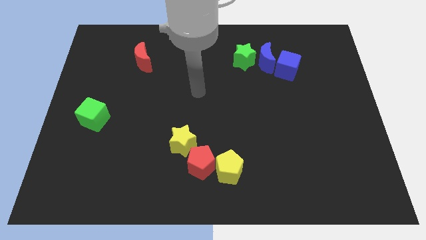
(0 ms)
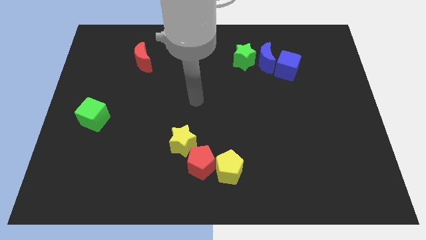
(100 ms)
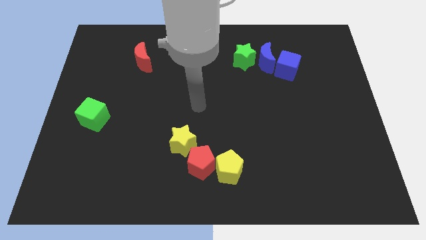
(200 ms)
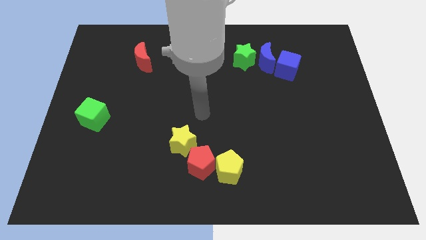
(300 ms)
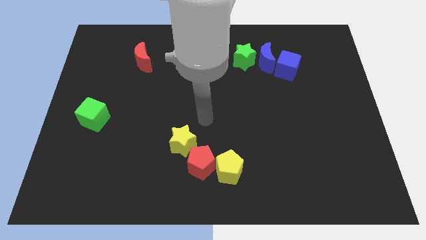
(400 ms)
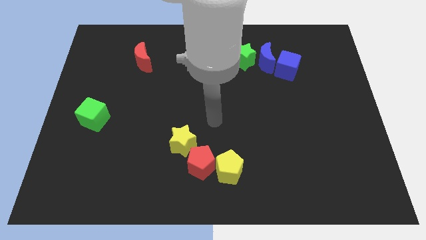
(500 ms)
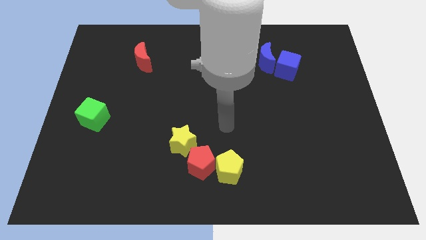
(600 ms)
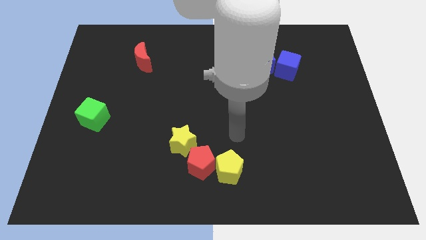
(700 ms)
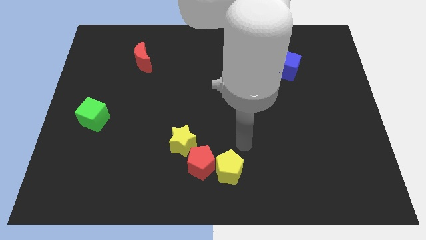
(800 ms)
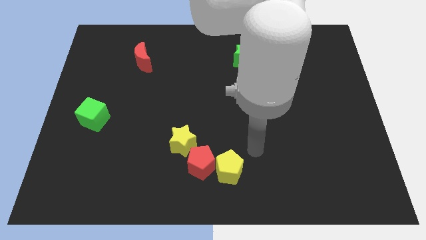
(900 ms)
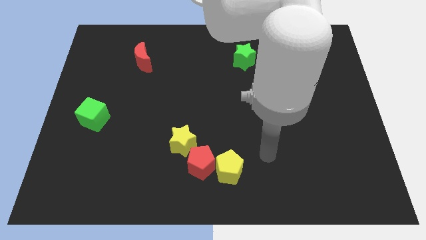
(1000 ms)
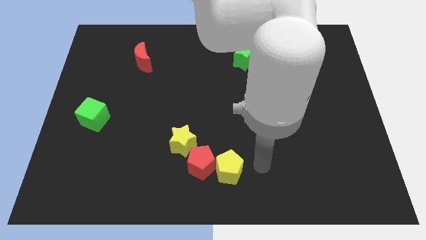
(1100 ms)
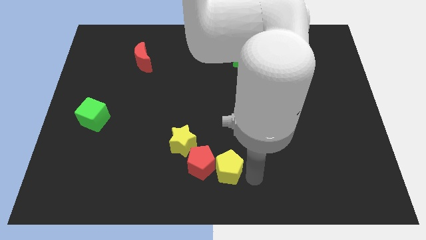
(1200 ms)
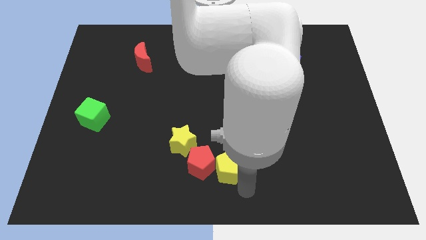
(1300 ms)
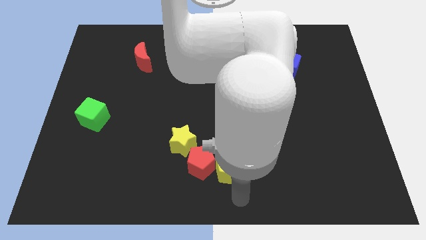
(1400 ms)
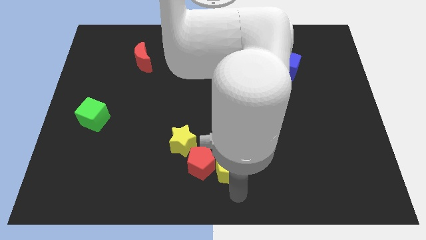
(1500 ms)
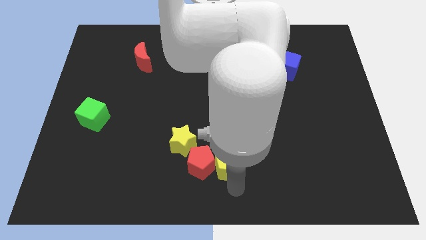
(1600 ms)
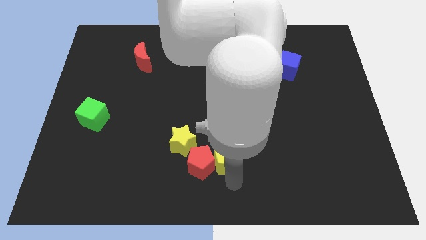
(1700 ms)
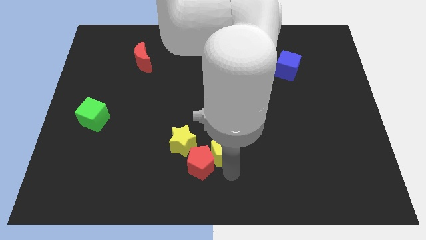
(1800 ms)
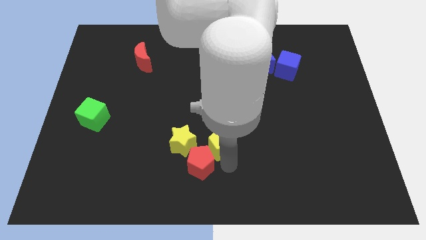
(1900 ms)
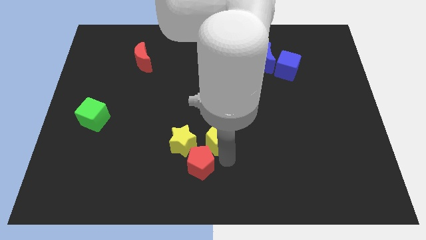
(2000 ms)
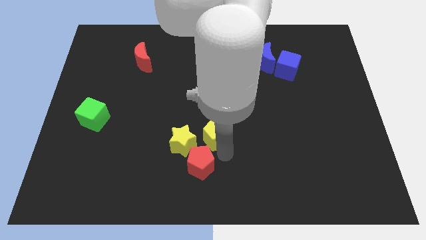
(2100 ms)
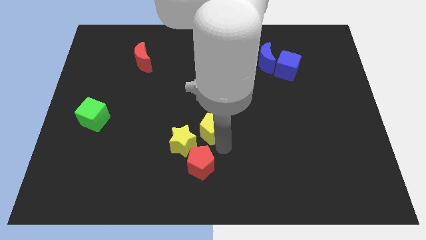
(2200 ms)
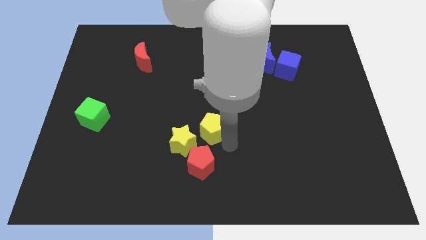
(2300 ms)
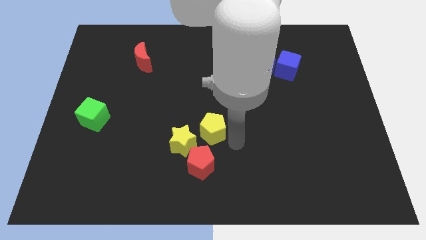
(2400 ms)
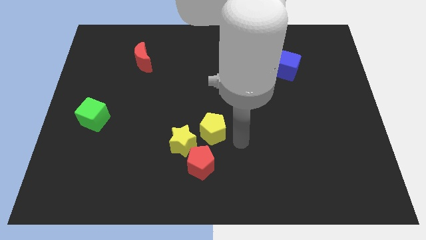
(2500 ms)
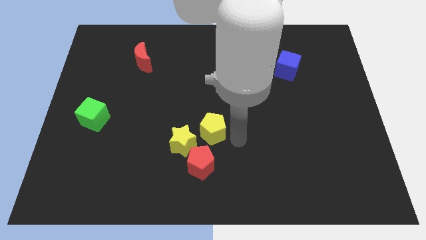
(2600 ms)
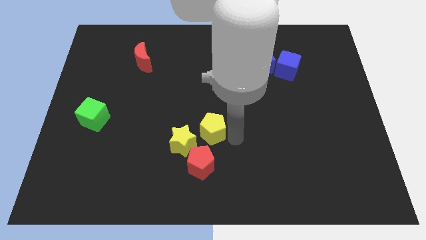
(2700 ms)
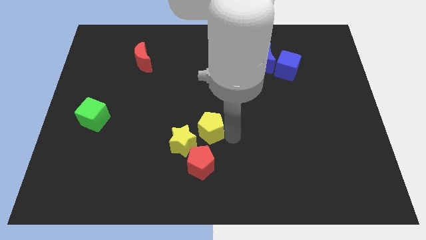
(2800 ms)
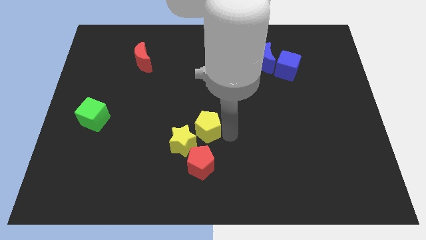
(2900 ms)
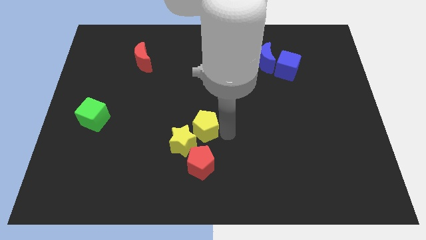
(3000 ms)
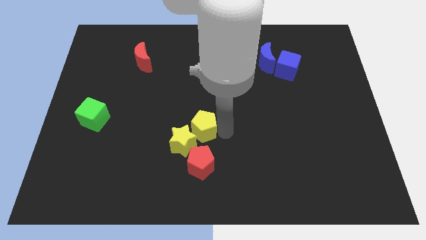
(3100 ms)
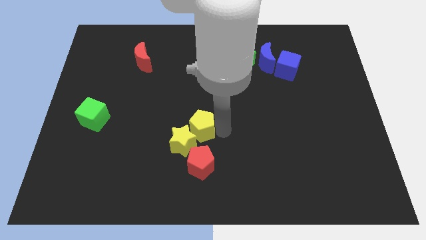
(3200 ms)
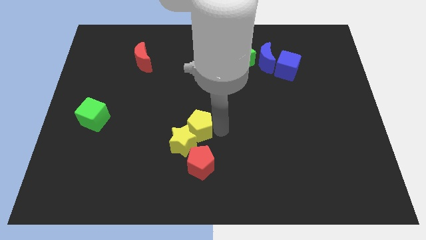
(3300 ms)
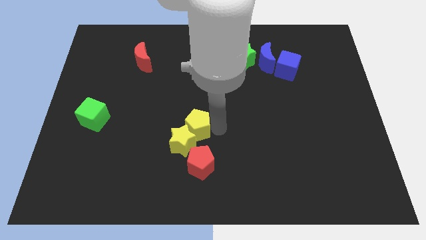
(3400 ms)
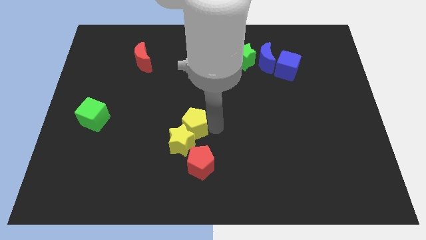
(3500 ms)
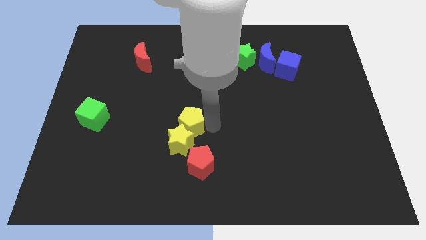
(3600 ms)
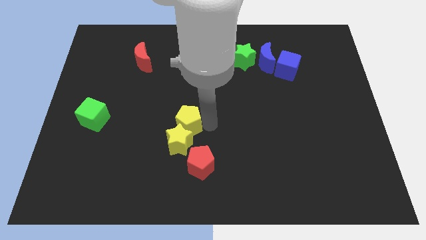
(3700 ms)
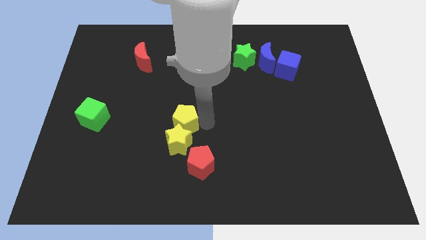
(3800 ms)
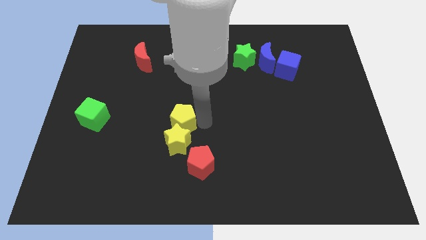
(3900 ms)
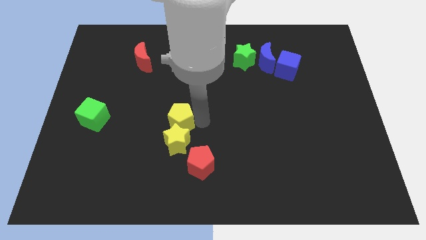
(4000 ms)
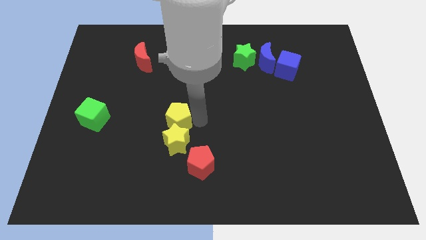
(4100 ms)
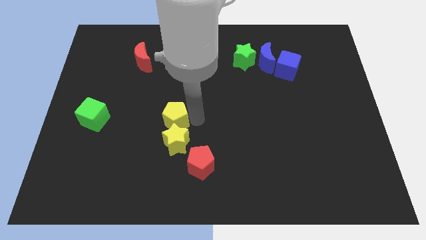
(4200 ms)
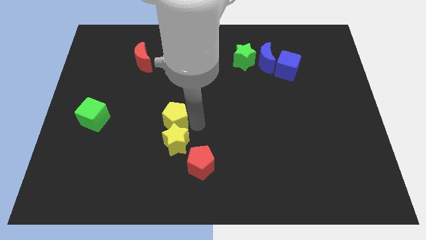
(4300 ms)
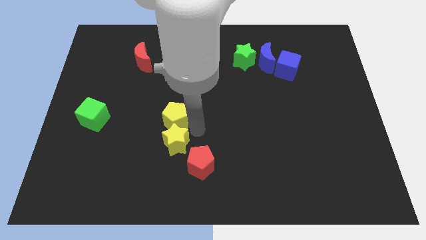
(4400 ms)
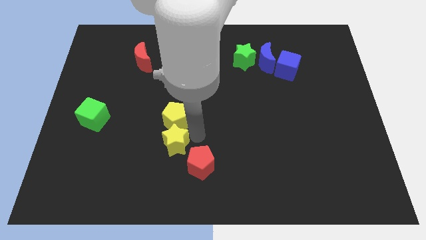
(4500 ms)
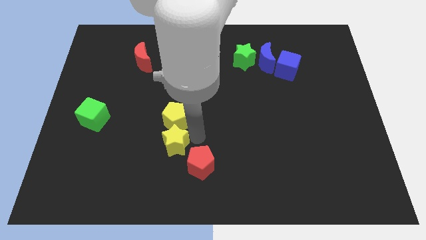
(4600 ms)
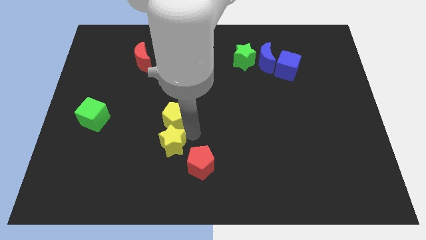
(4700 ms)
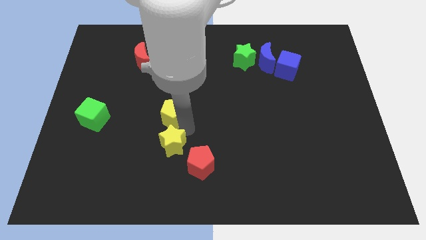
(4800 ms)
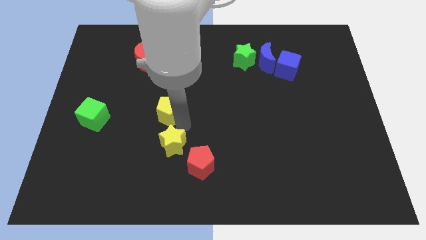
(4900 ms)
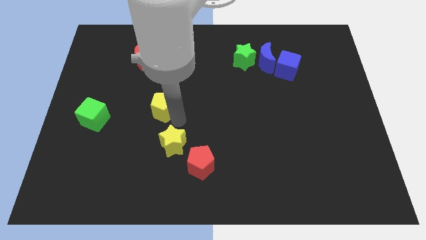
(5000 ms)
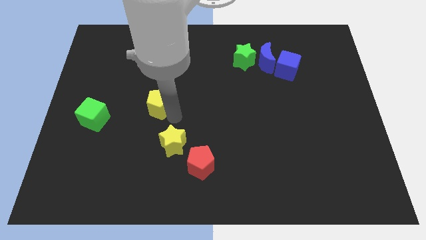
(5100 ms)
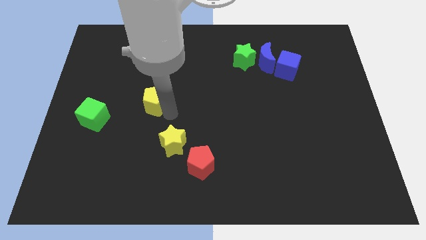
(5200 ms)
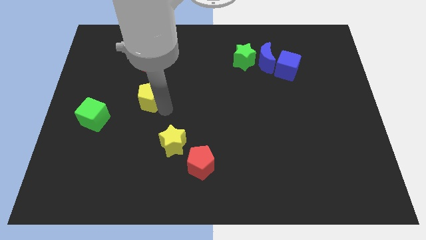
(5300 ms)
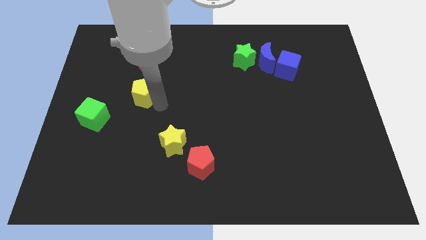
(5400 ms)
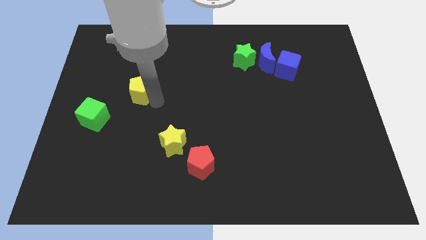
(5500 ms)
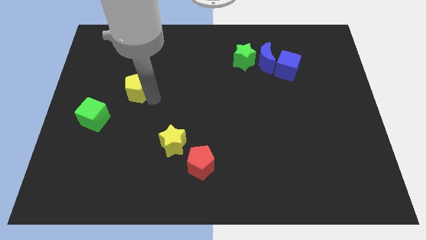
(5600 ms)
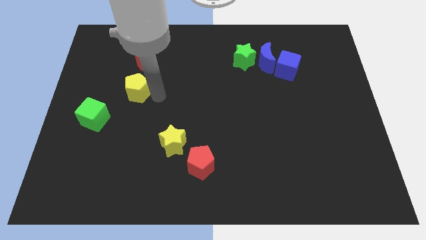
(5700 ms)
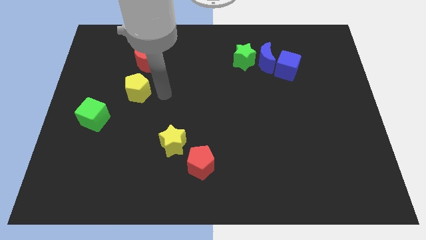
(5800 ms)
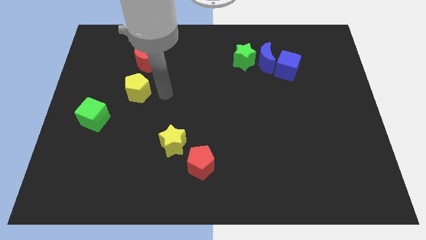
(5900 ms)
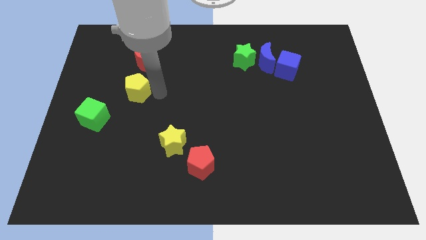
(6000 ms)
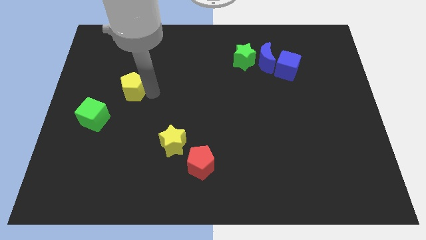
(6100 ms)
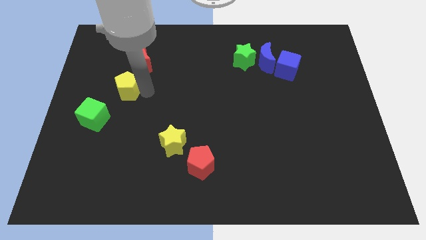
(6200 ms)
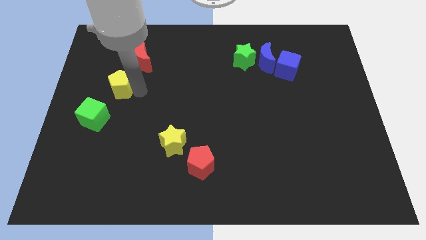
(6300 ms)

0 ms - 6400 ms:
slide the yellow pentagon above the green cube
